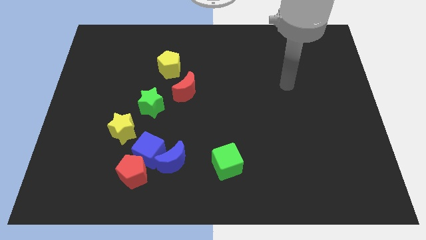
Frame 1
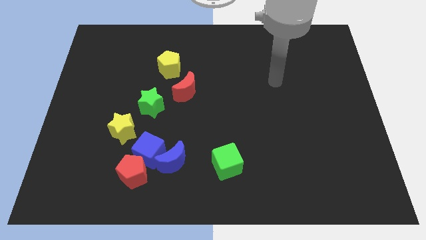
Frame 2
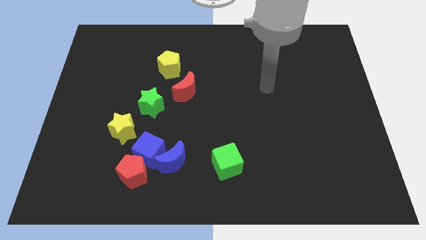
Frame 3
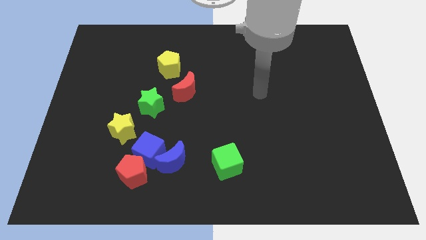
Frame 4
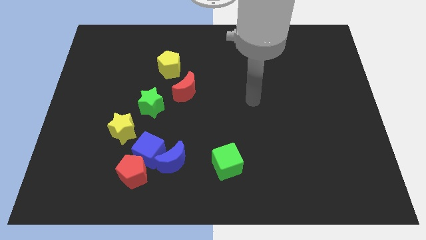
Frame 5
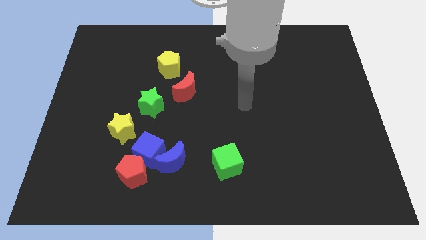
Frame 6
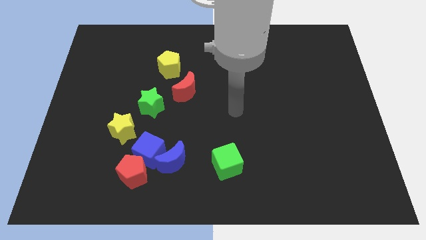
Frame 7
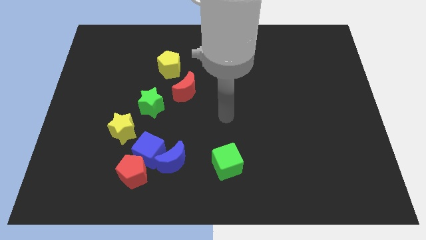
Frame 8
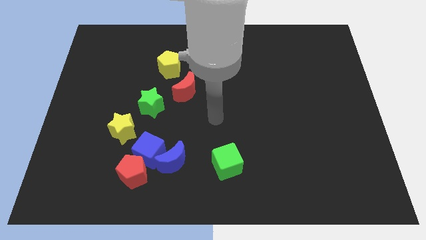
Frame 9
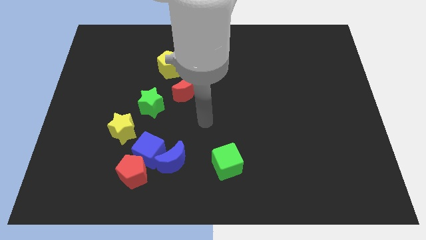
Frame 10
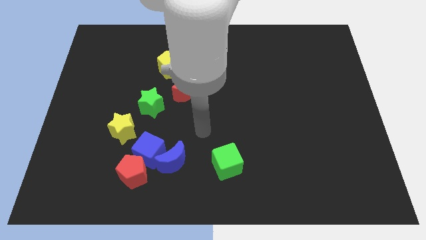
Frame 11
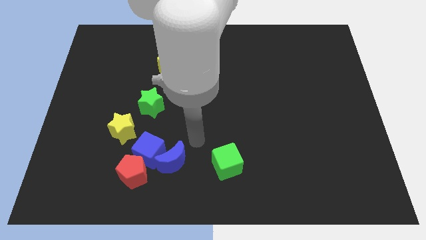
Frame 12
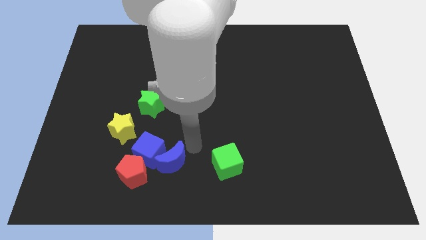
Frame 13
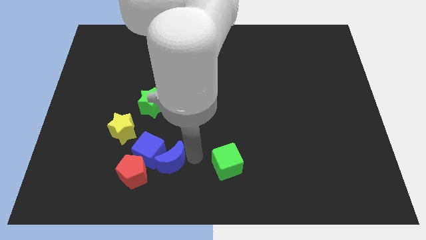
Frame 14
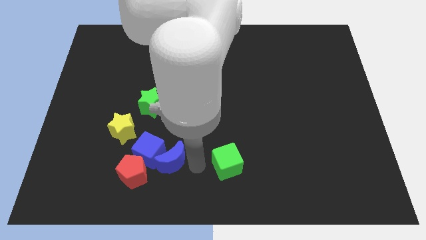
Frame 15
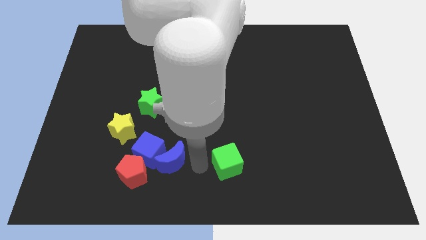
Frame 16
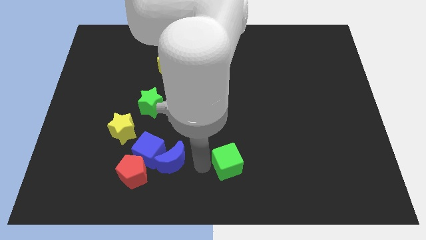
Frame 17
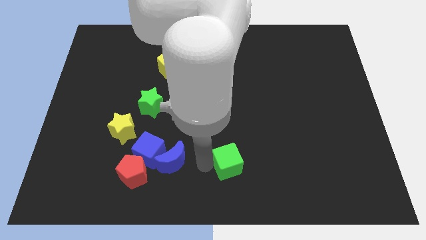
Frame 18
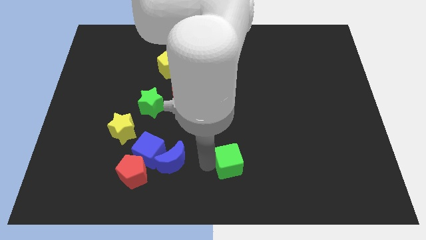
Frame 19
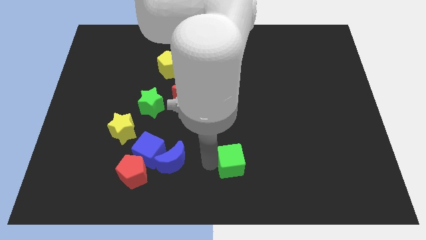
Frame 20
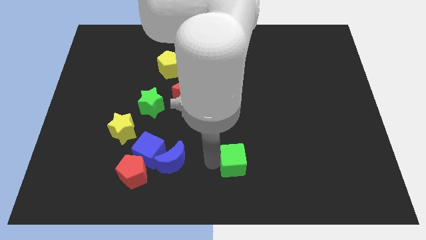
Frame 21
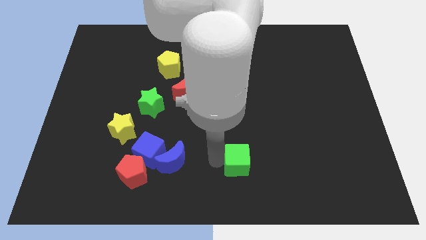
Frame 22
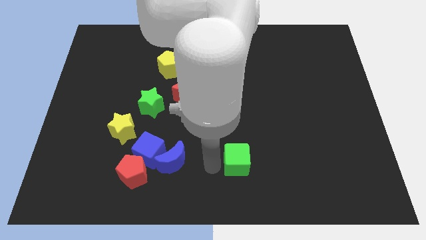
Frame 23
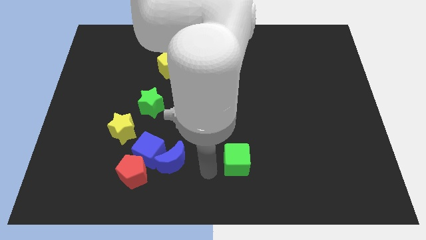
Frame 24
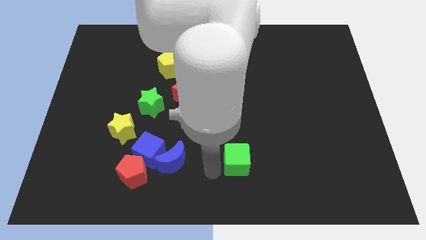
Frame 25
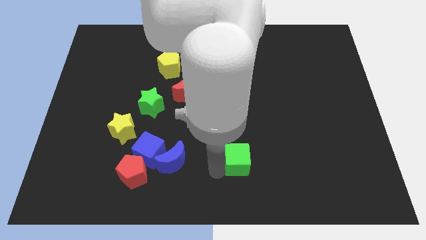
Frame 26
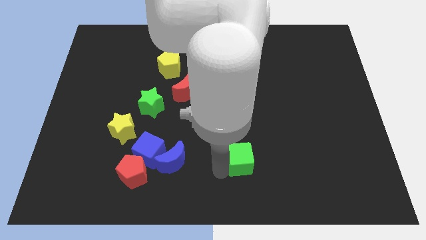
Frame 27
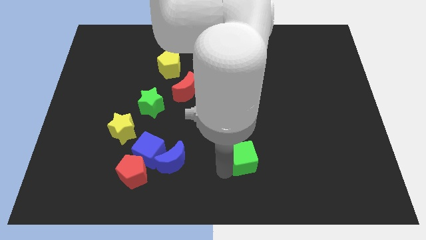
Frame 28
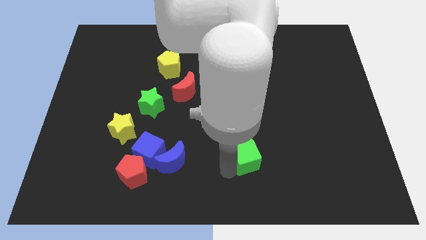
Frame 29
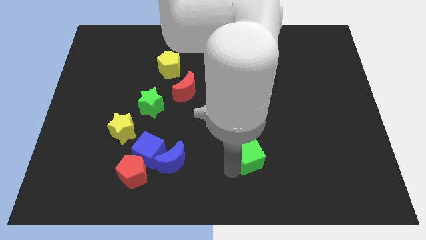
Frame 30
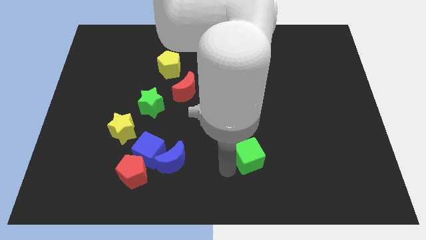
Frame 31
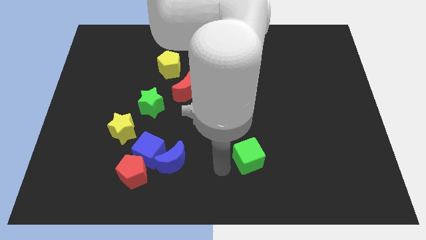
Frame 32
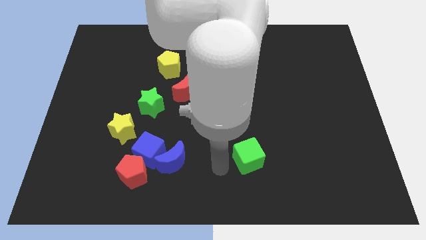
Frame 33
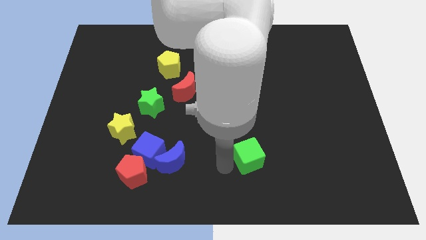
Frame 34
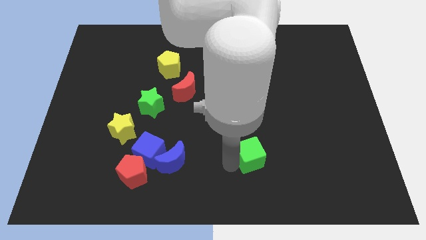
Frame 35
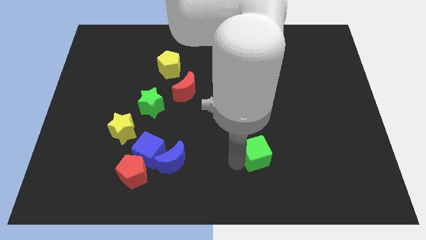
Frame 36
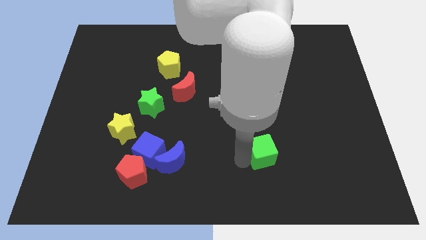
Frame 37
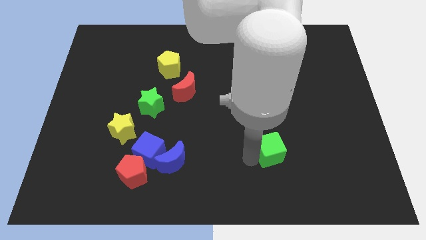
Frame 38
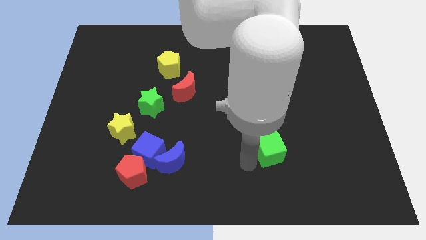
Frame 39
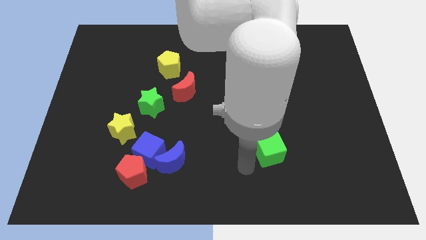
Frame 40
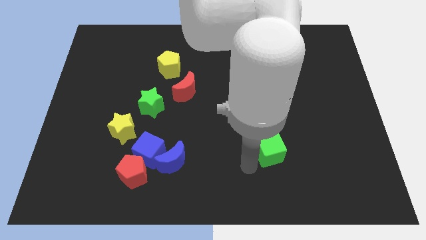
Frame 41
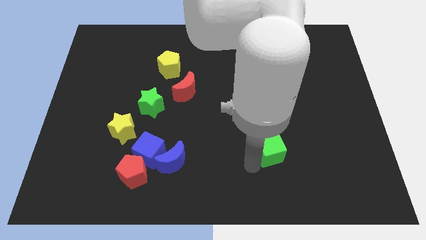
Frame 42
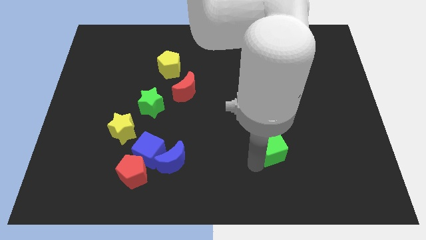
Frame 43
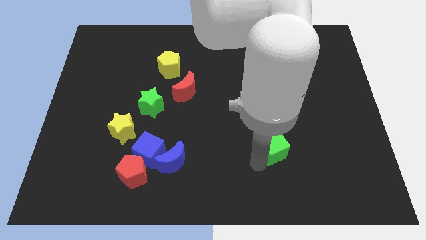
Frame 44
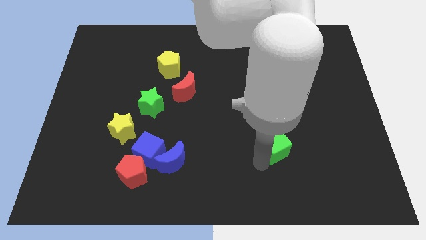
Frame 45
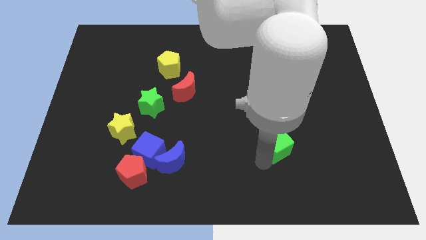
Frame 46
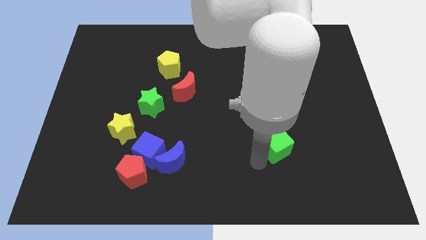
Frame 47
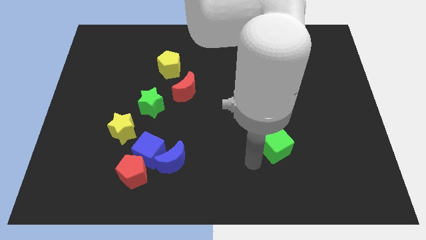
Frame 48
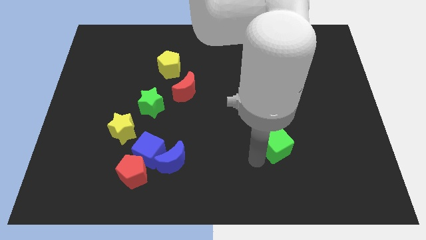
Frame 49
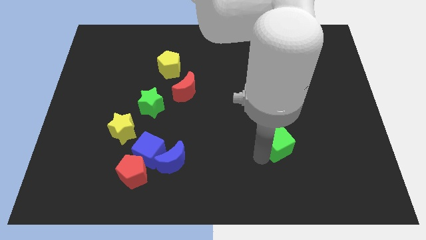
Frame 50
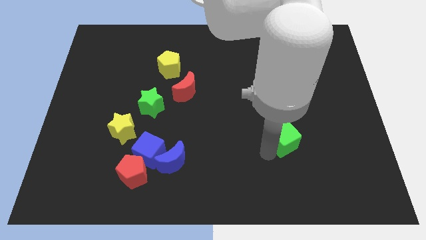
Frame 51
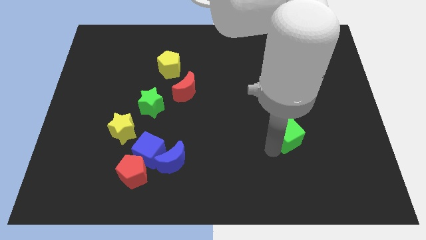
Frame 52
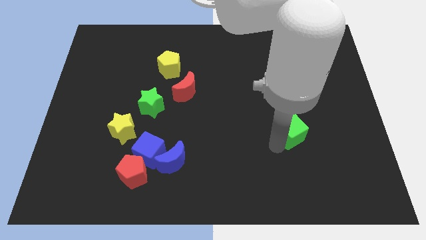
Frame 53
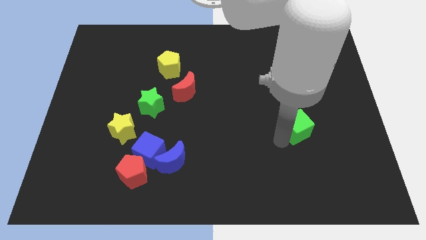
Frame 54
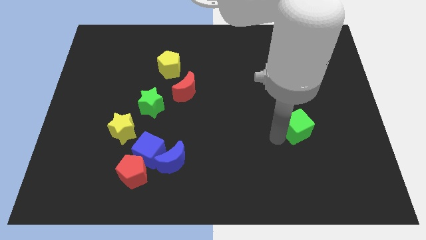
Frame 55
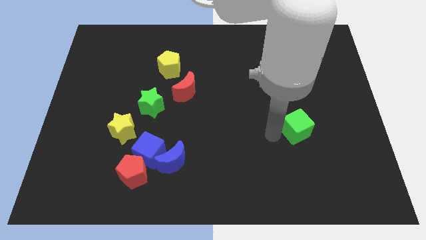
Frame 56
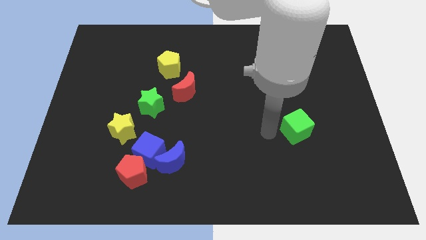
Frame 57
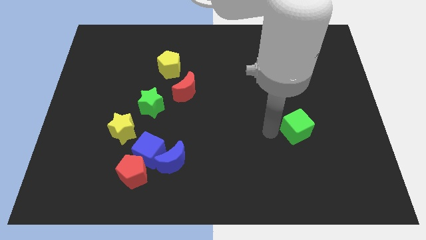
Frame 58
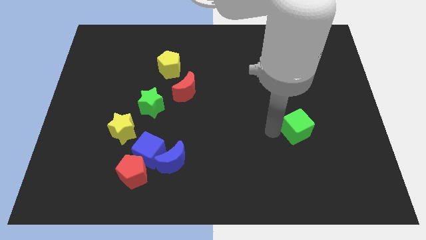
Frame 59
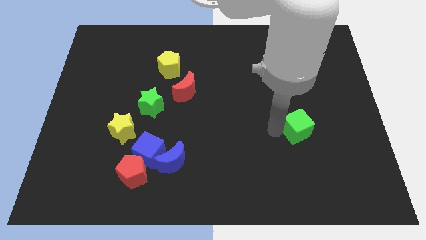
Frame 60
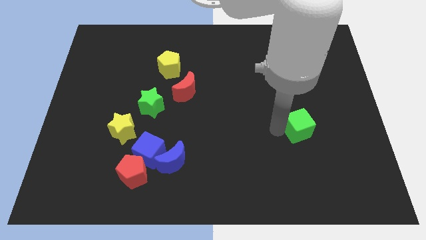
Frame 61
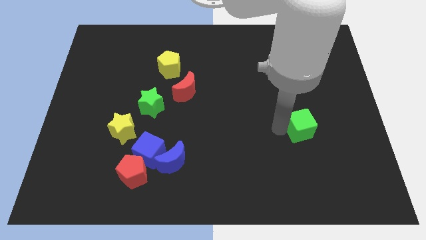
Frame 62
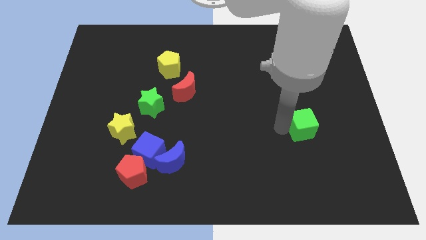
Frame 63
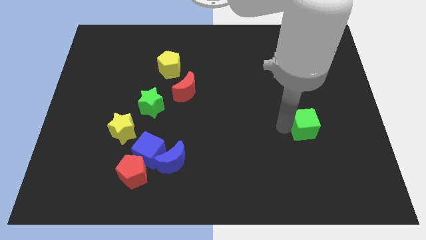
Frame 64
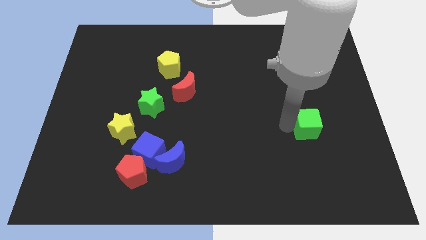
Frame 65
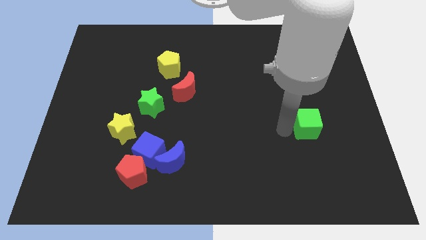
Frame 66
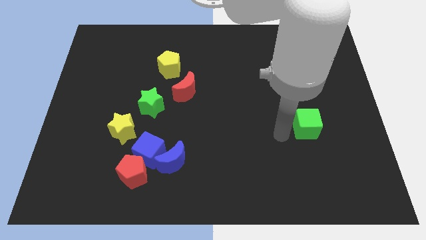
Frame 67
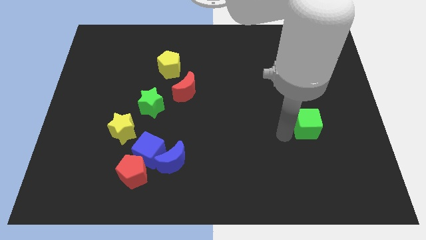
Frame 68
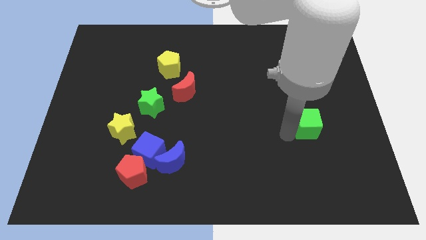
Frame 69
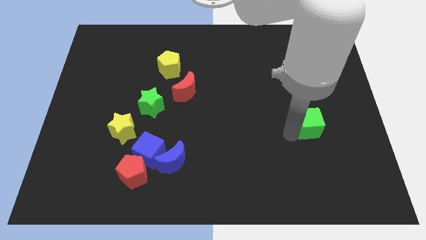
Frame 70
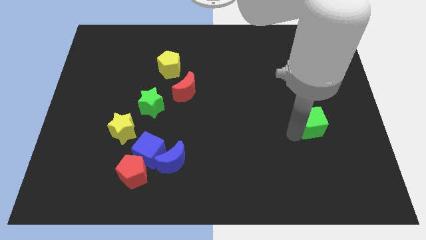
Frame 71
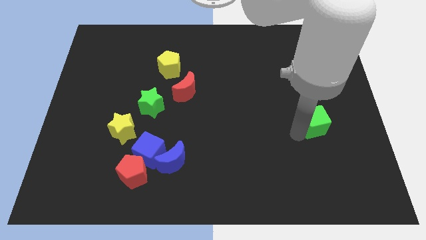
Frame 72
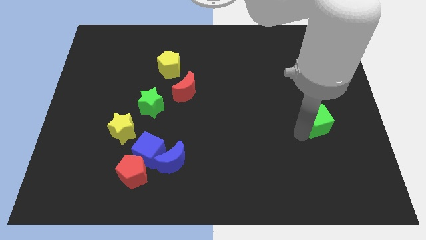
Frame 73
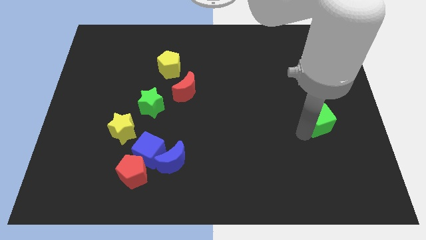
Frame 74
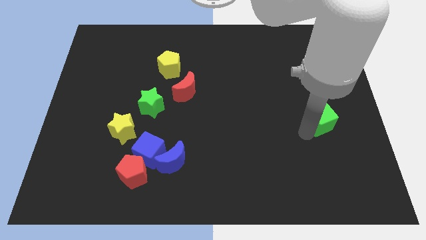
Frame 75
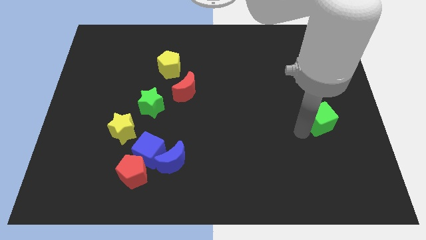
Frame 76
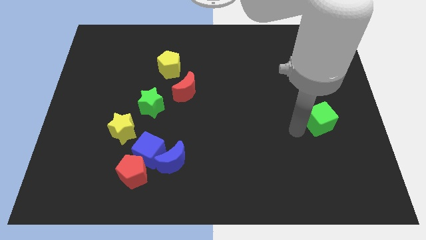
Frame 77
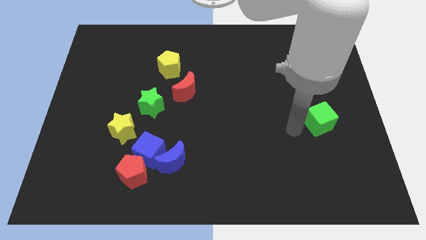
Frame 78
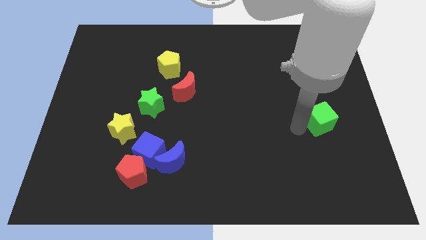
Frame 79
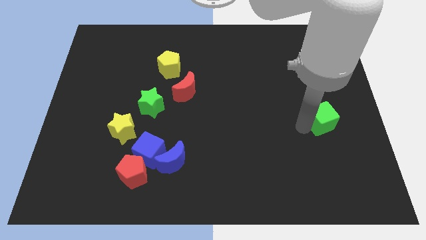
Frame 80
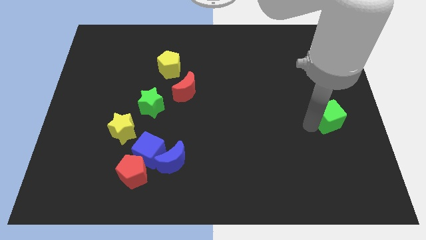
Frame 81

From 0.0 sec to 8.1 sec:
push the green cube to the right side of the board
